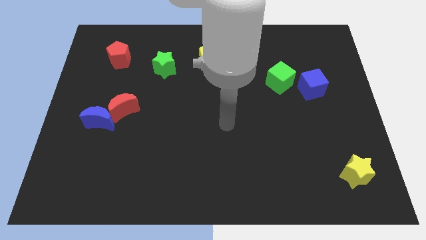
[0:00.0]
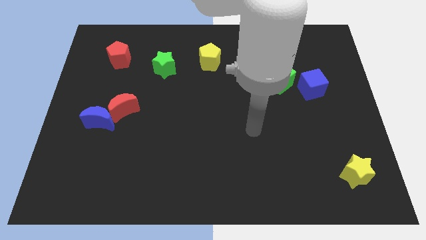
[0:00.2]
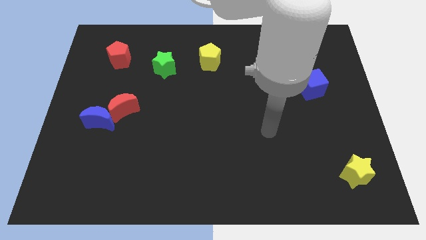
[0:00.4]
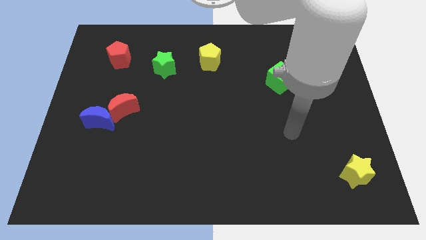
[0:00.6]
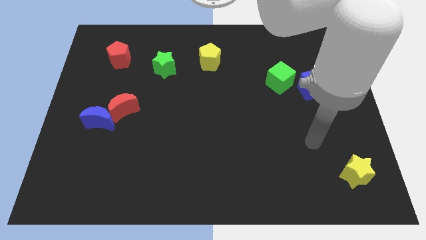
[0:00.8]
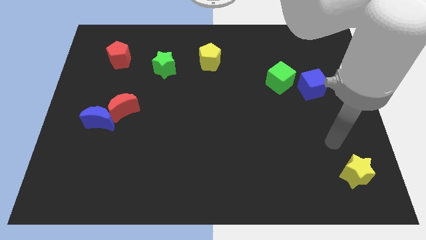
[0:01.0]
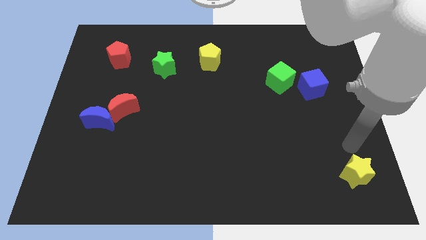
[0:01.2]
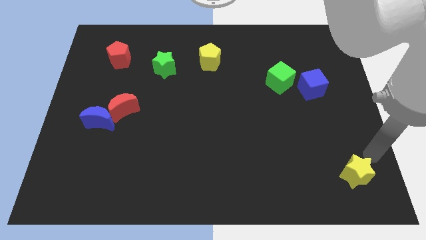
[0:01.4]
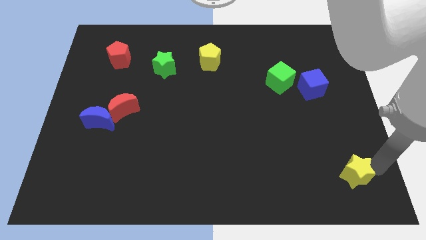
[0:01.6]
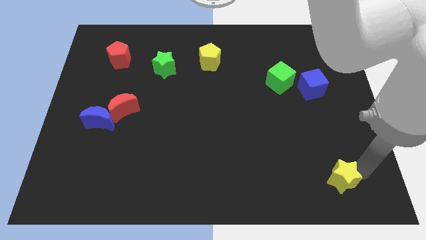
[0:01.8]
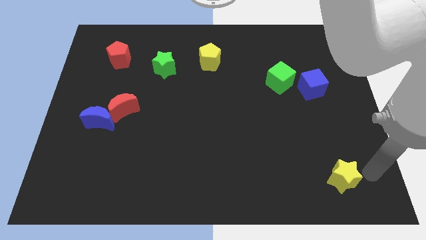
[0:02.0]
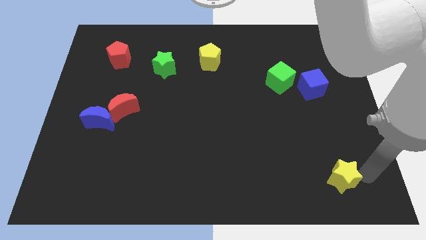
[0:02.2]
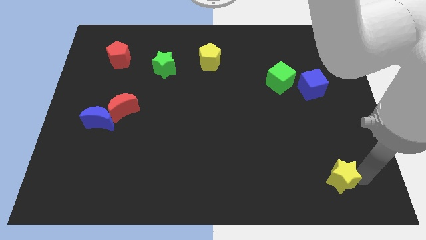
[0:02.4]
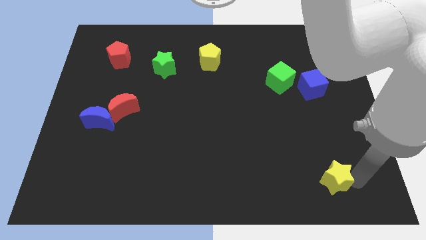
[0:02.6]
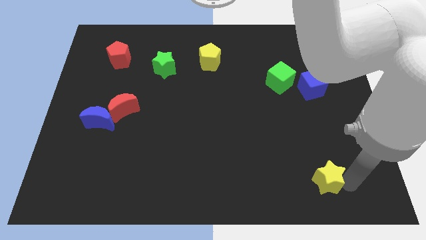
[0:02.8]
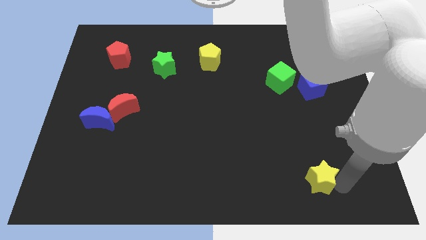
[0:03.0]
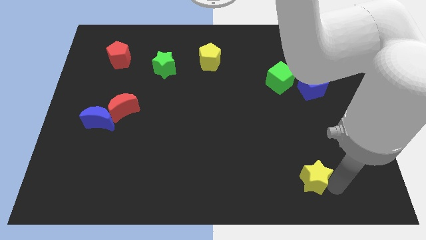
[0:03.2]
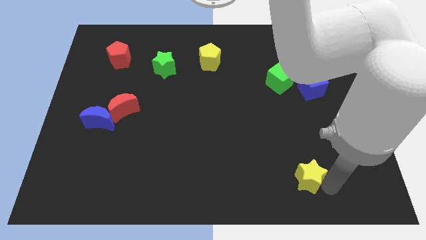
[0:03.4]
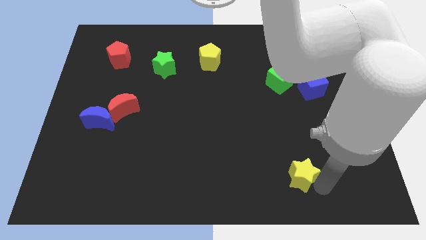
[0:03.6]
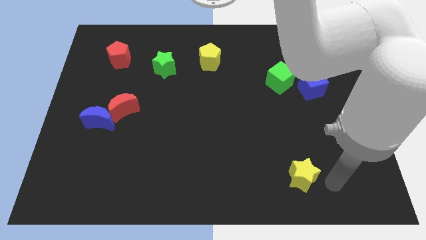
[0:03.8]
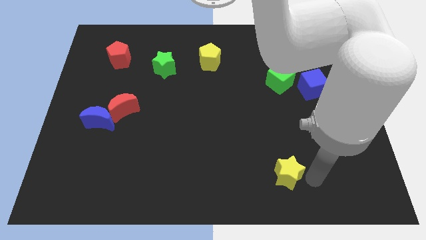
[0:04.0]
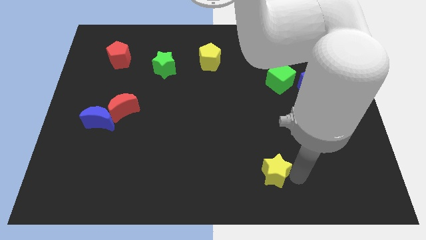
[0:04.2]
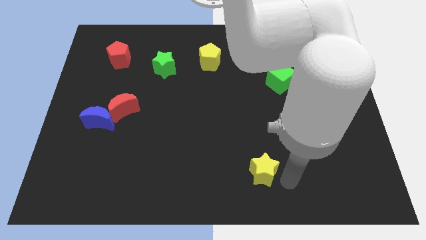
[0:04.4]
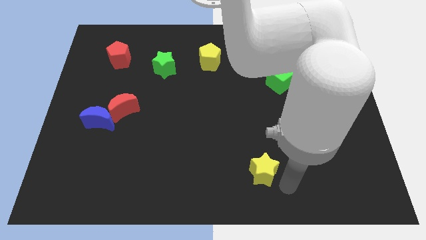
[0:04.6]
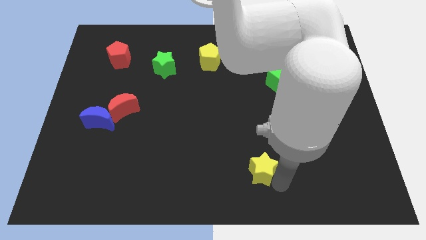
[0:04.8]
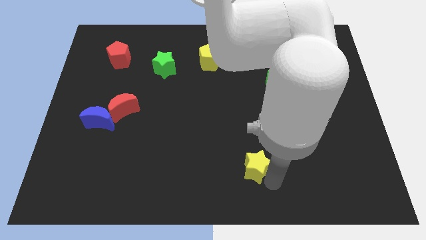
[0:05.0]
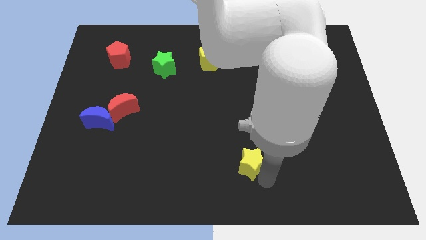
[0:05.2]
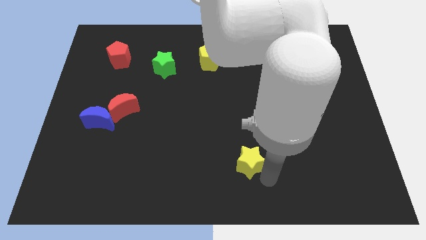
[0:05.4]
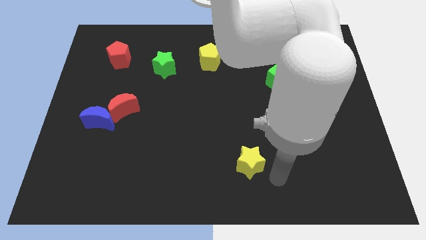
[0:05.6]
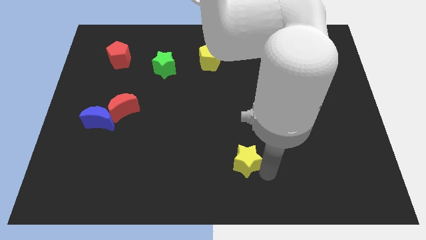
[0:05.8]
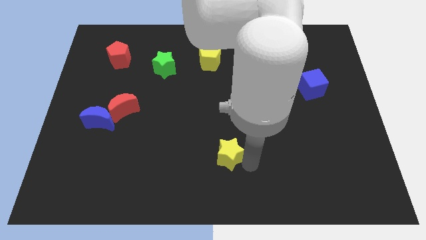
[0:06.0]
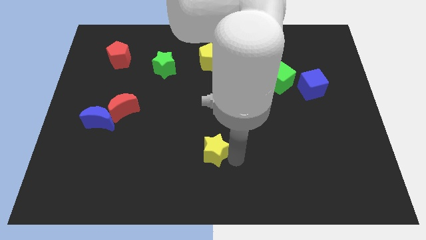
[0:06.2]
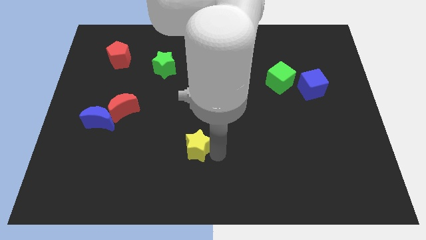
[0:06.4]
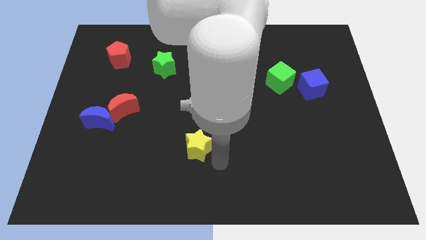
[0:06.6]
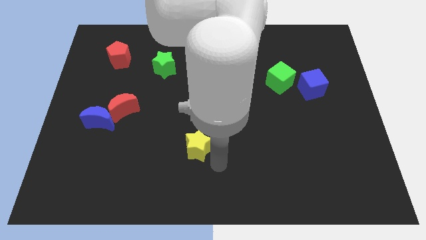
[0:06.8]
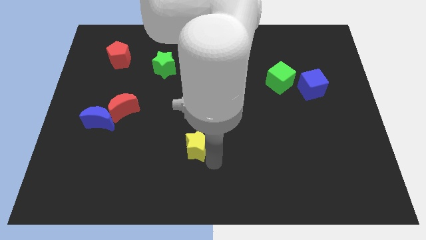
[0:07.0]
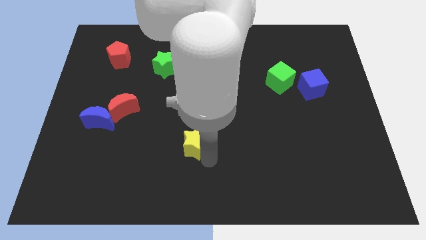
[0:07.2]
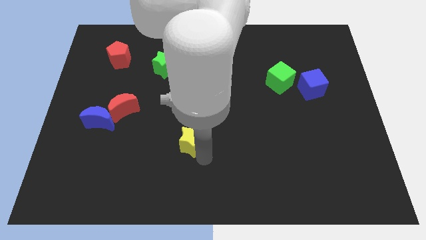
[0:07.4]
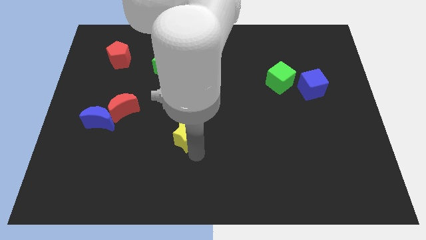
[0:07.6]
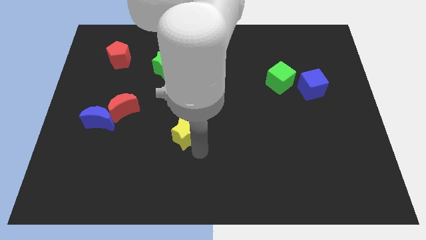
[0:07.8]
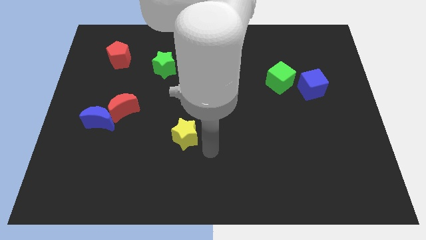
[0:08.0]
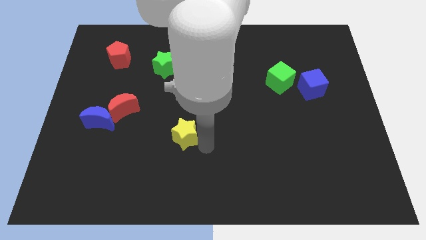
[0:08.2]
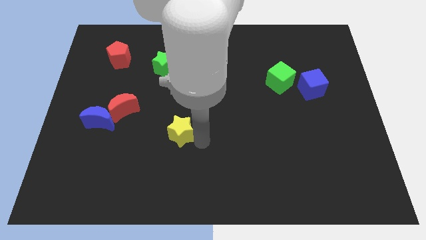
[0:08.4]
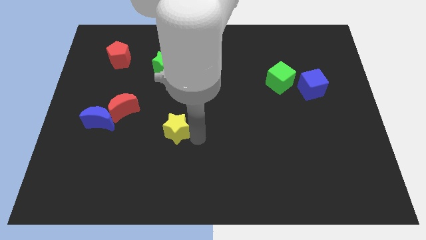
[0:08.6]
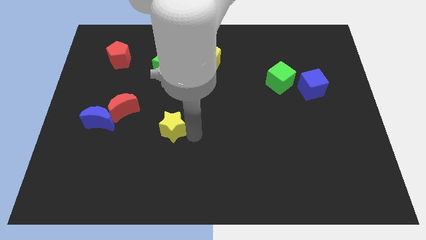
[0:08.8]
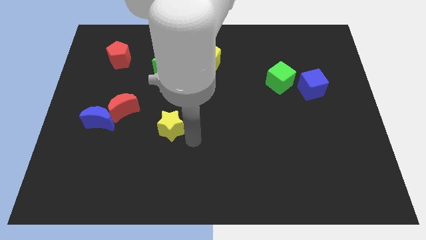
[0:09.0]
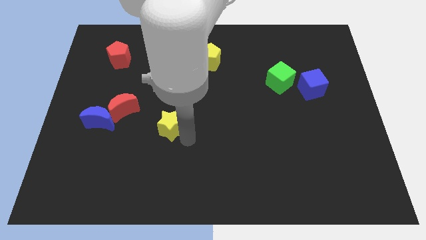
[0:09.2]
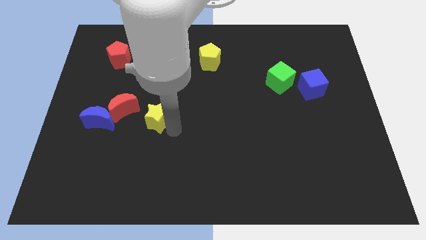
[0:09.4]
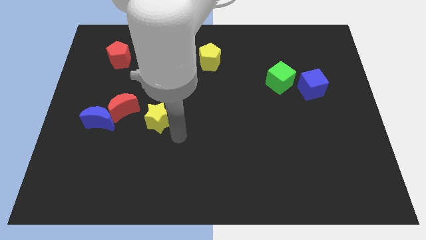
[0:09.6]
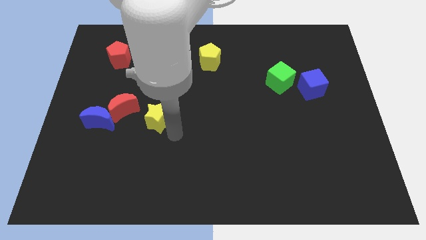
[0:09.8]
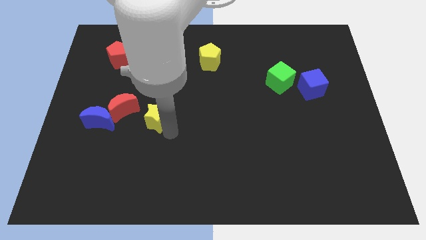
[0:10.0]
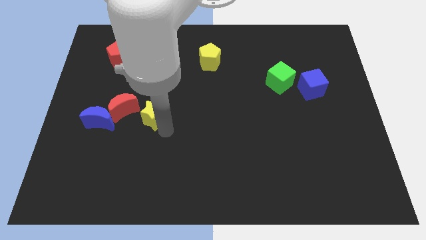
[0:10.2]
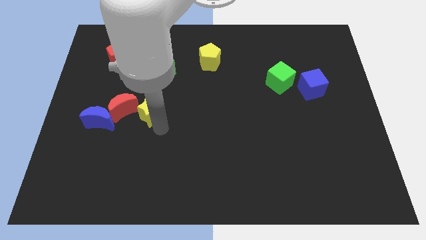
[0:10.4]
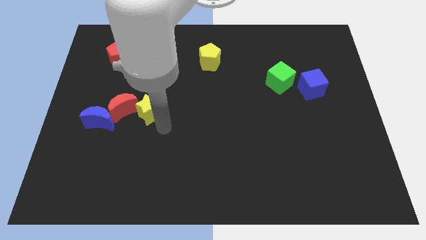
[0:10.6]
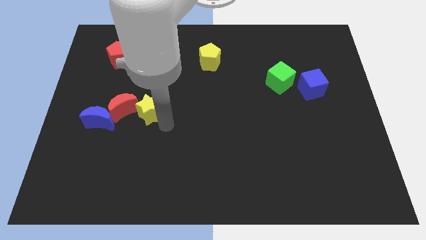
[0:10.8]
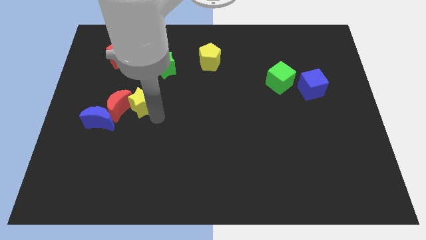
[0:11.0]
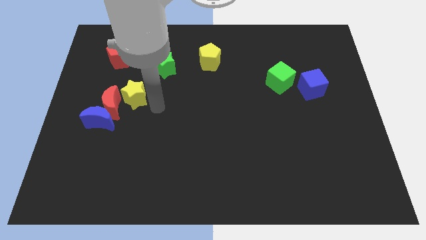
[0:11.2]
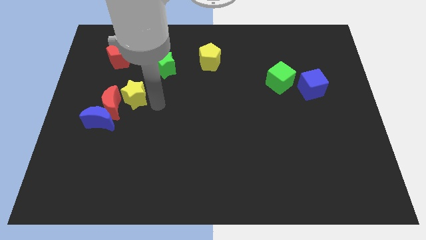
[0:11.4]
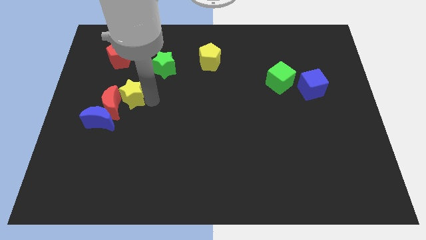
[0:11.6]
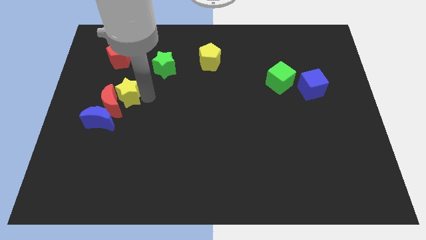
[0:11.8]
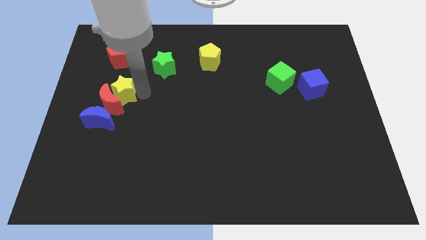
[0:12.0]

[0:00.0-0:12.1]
put the yellow star above the blue moon
